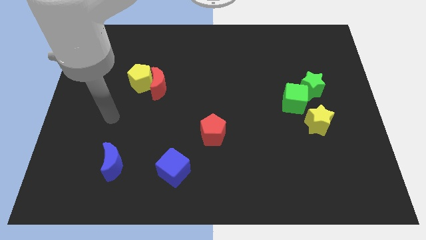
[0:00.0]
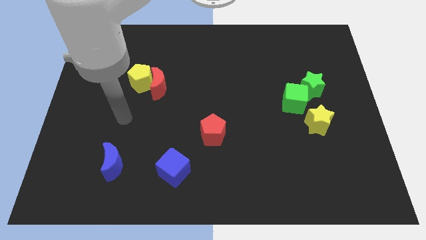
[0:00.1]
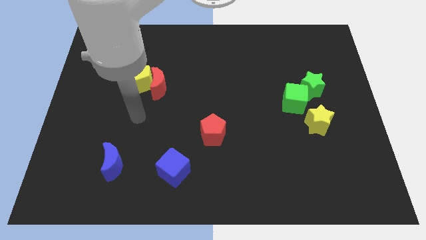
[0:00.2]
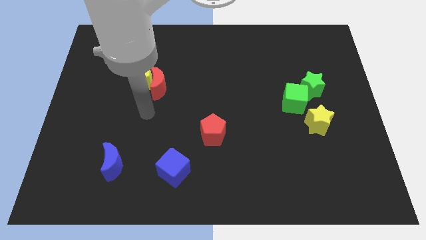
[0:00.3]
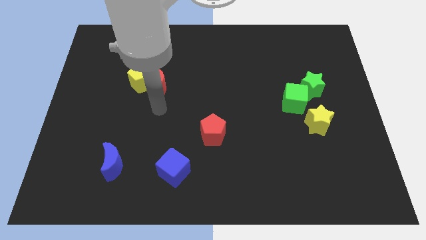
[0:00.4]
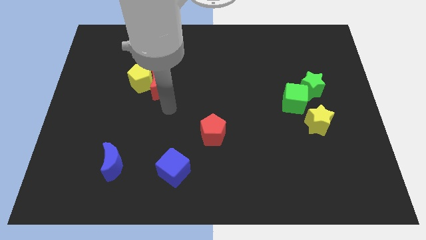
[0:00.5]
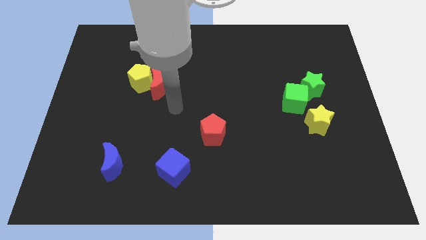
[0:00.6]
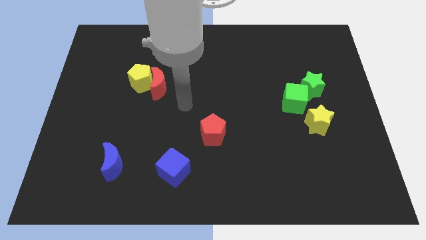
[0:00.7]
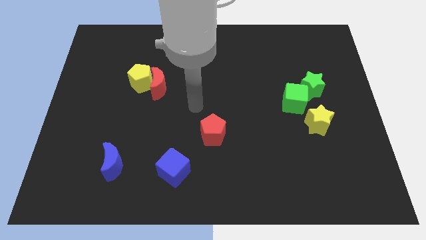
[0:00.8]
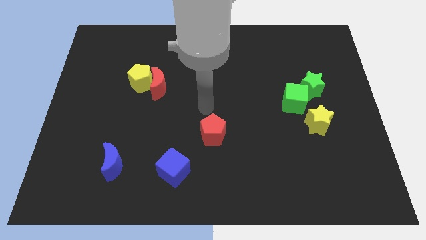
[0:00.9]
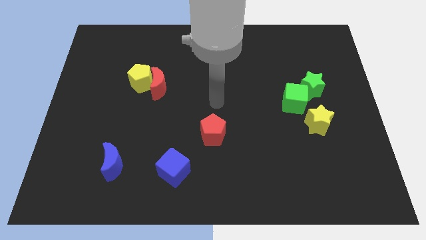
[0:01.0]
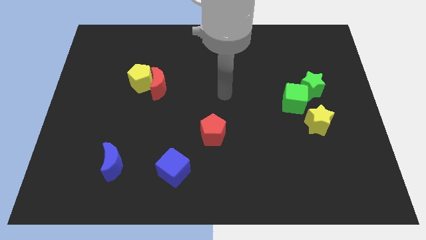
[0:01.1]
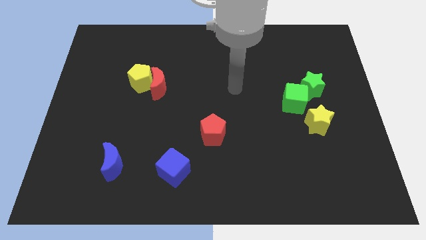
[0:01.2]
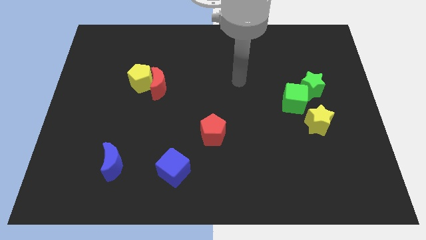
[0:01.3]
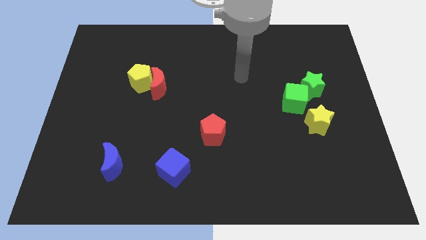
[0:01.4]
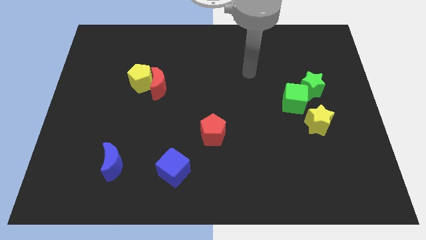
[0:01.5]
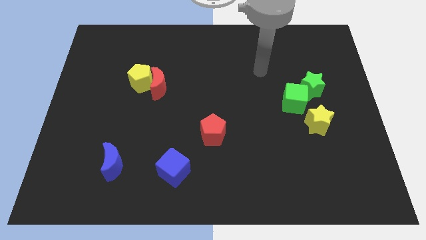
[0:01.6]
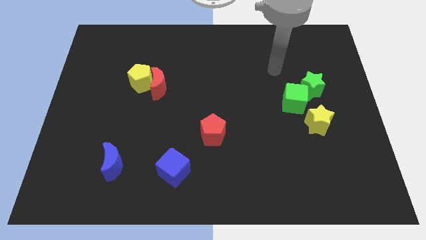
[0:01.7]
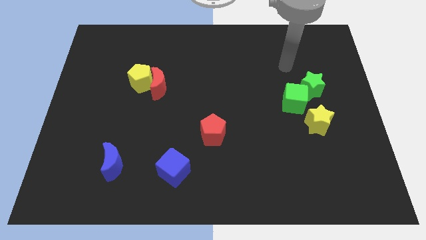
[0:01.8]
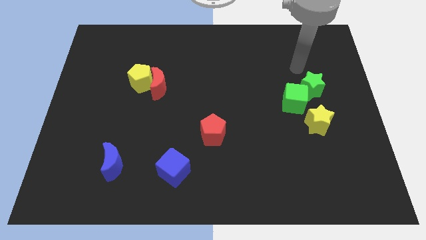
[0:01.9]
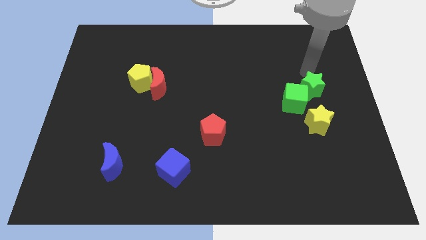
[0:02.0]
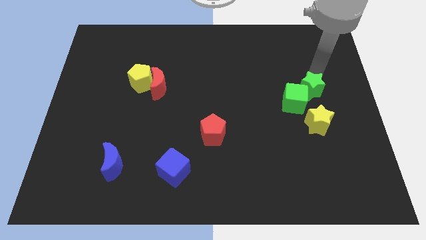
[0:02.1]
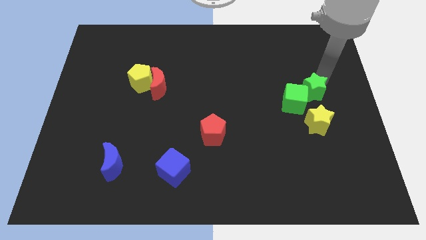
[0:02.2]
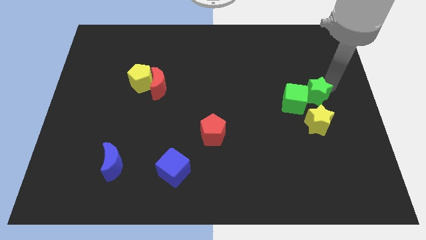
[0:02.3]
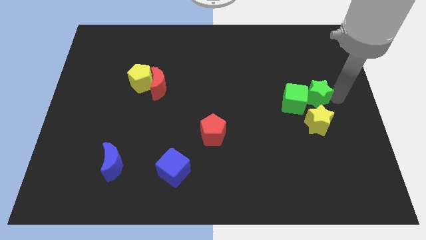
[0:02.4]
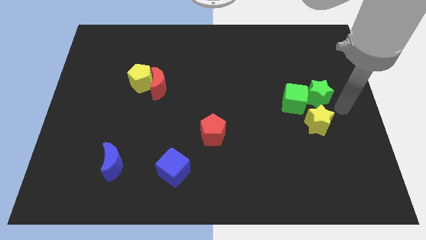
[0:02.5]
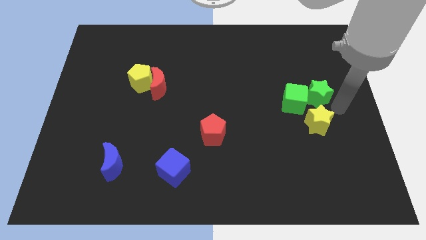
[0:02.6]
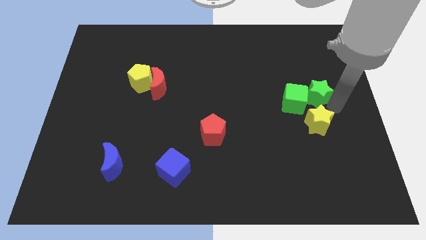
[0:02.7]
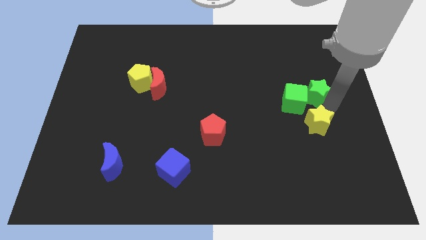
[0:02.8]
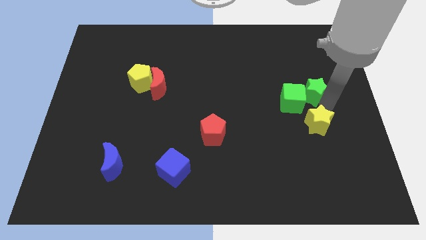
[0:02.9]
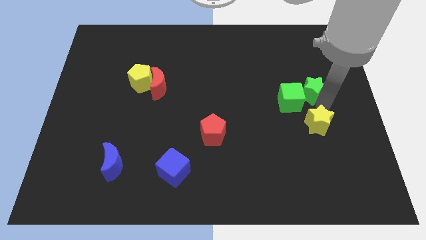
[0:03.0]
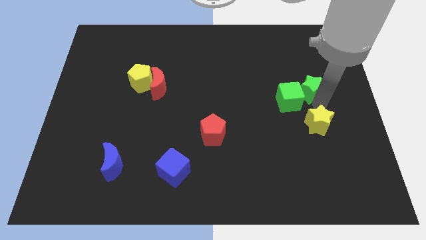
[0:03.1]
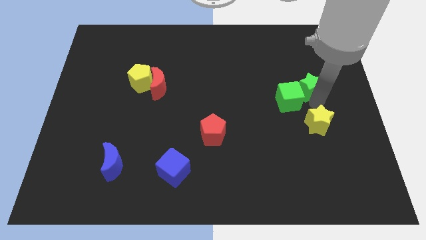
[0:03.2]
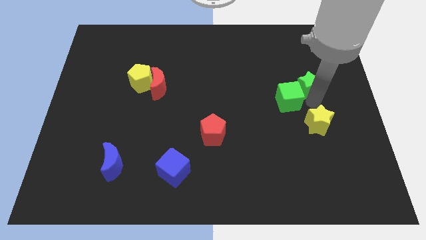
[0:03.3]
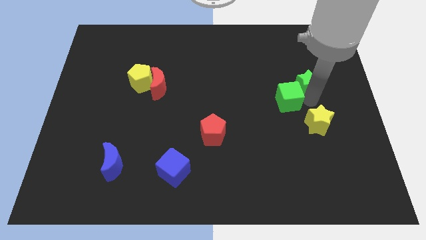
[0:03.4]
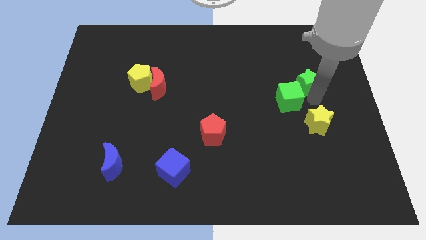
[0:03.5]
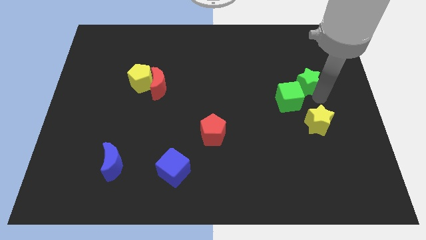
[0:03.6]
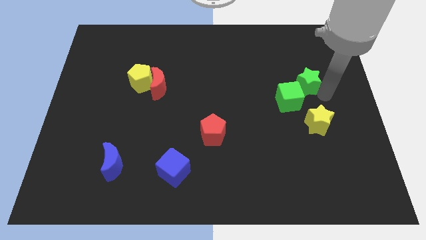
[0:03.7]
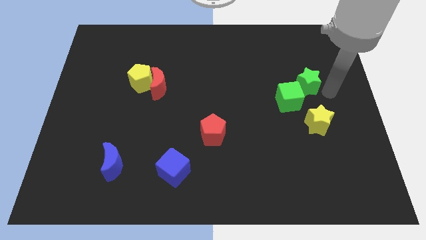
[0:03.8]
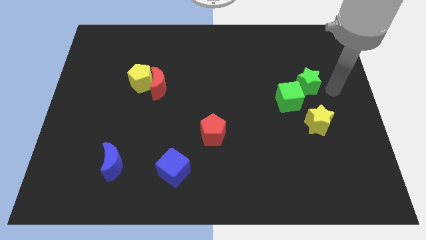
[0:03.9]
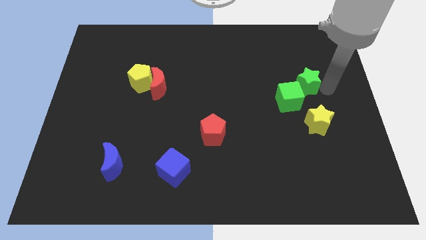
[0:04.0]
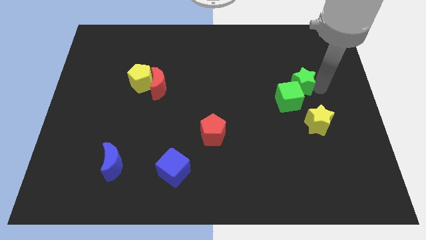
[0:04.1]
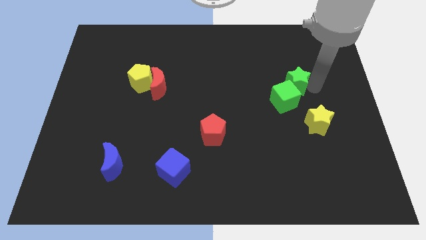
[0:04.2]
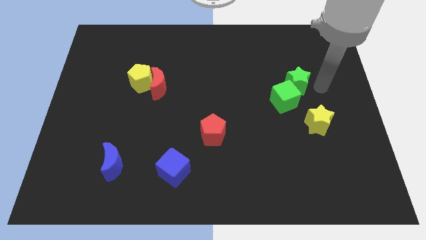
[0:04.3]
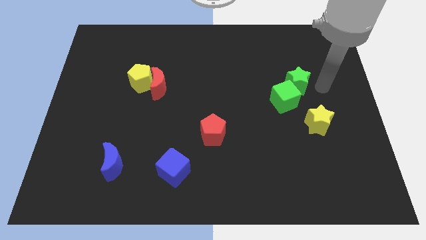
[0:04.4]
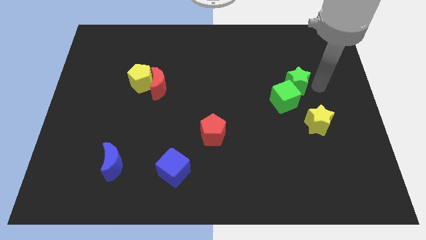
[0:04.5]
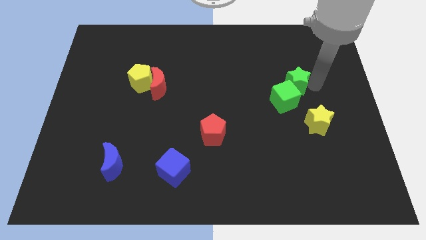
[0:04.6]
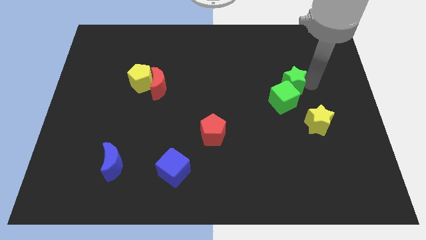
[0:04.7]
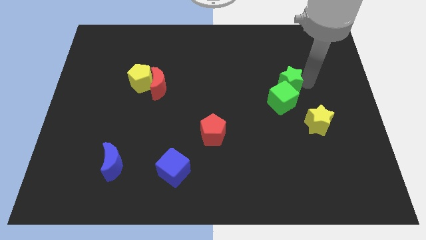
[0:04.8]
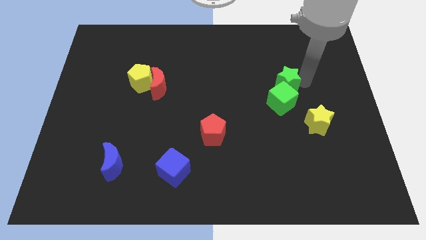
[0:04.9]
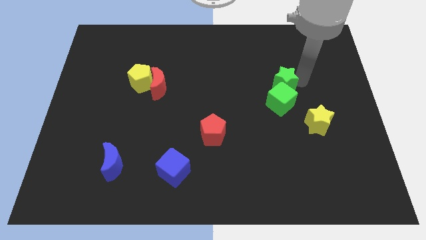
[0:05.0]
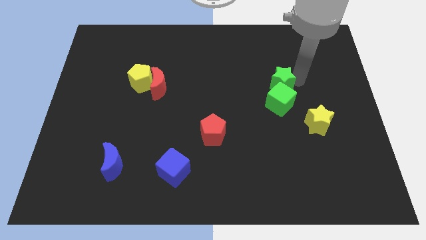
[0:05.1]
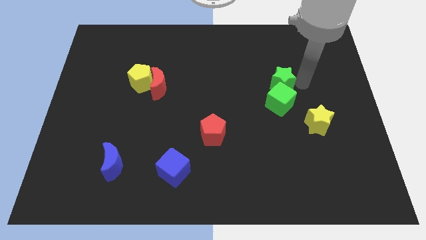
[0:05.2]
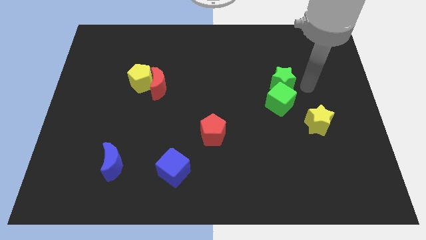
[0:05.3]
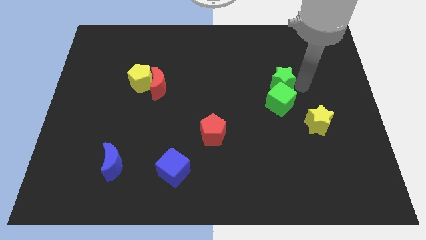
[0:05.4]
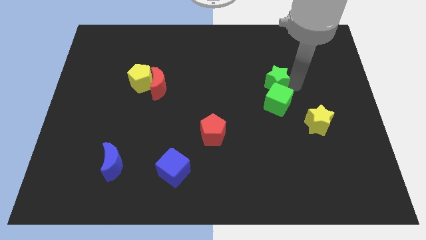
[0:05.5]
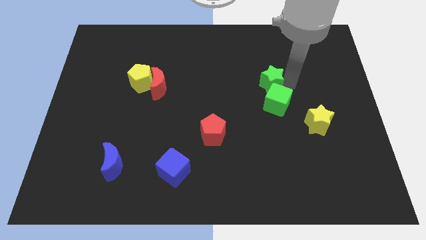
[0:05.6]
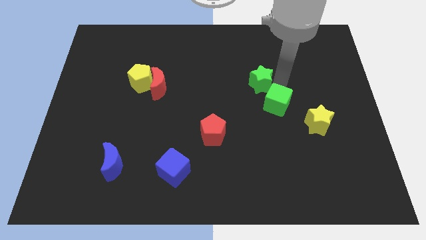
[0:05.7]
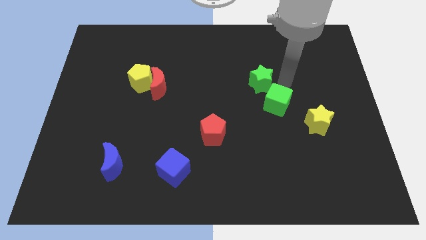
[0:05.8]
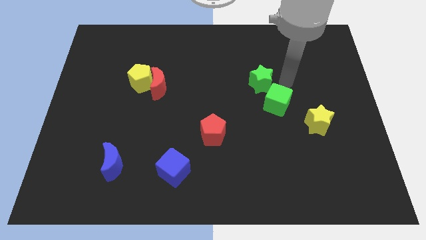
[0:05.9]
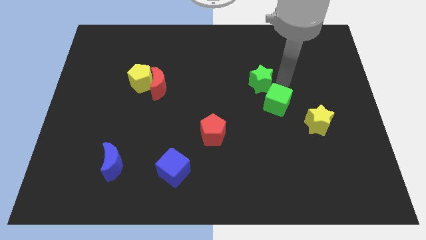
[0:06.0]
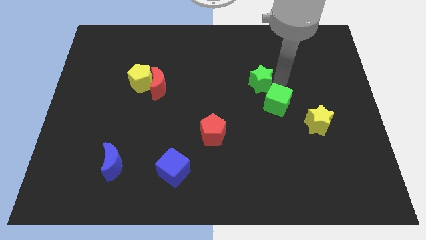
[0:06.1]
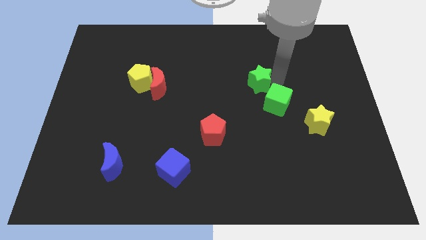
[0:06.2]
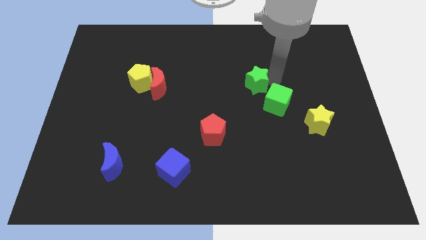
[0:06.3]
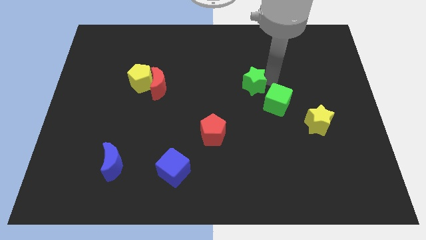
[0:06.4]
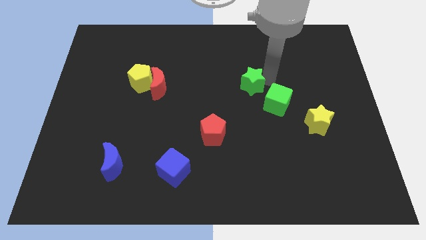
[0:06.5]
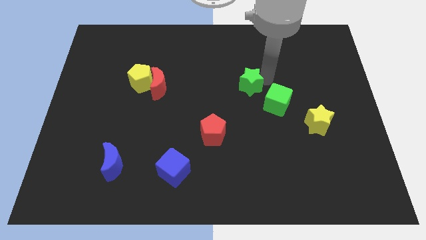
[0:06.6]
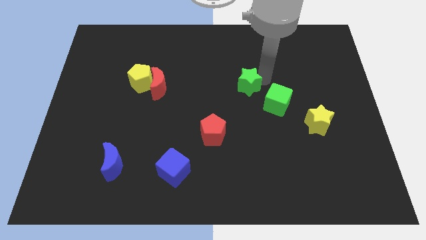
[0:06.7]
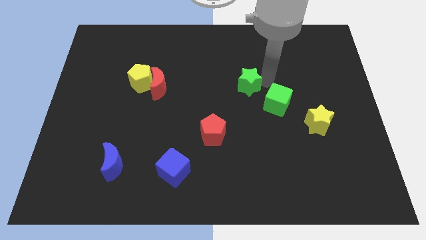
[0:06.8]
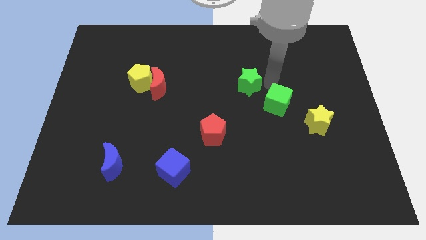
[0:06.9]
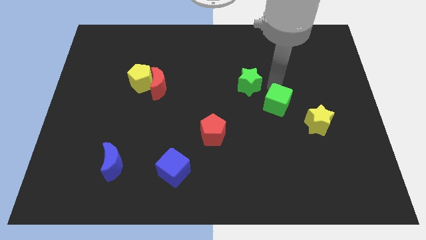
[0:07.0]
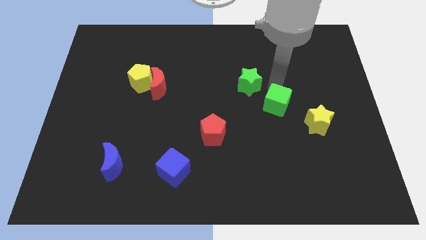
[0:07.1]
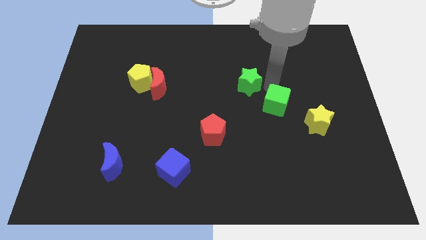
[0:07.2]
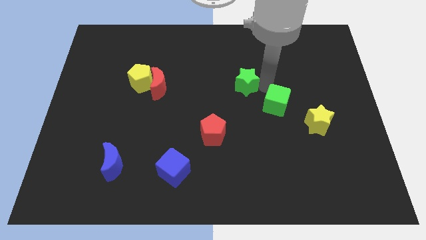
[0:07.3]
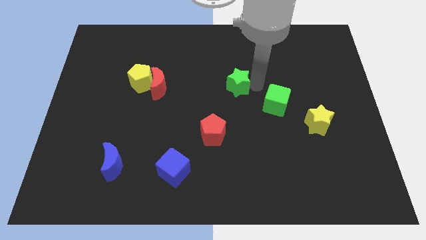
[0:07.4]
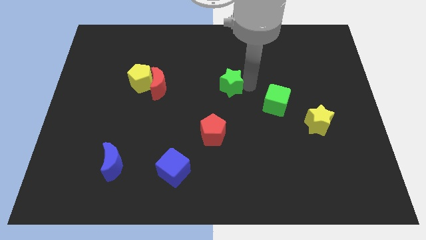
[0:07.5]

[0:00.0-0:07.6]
push the green star left

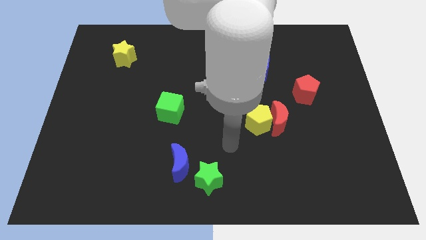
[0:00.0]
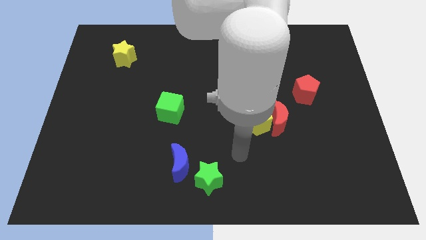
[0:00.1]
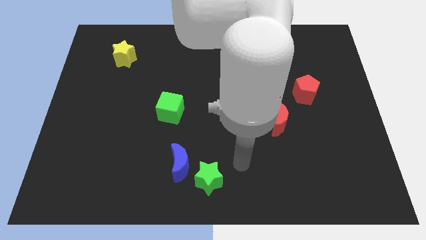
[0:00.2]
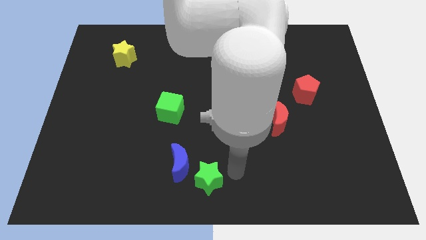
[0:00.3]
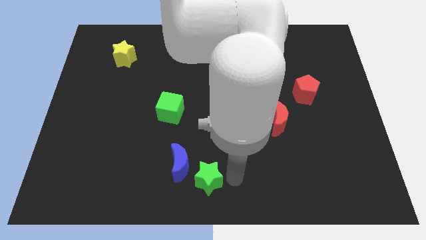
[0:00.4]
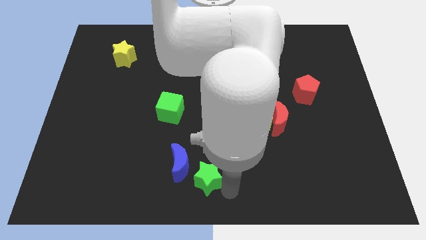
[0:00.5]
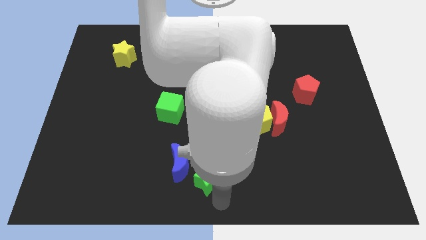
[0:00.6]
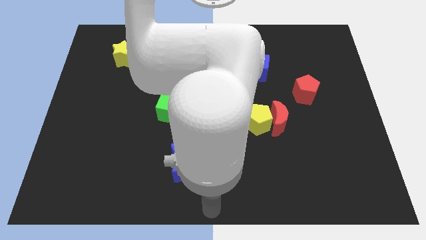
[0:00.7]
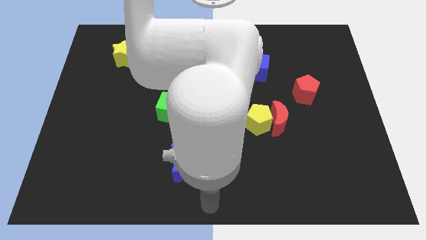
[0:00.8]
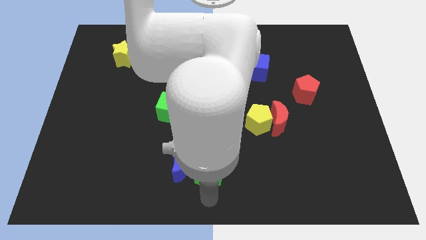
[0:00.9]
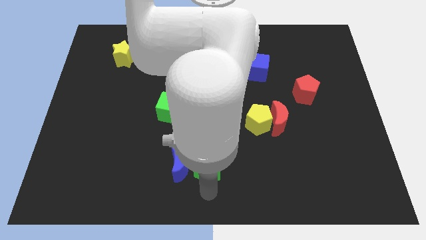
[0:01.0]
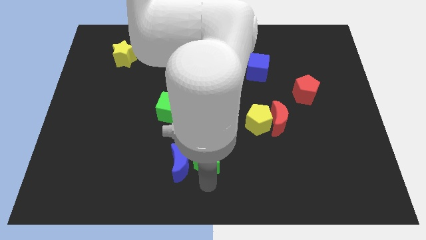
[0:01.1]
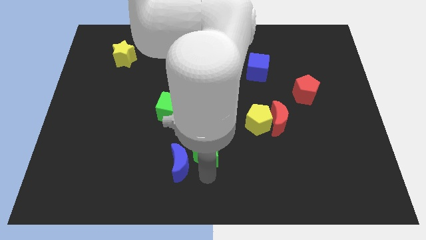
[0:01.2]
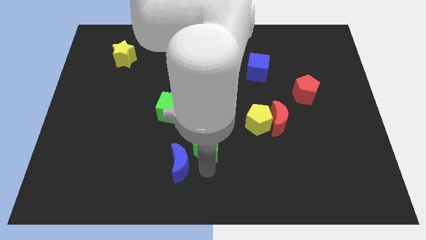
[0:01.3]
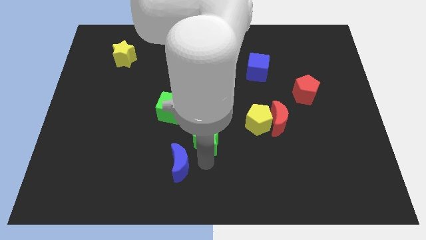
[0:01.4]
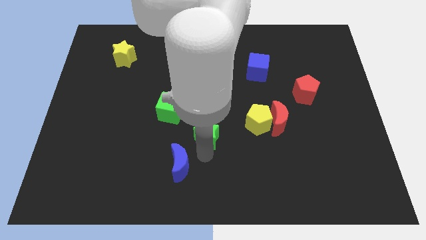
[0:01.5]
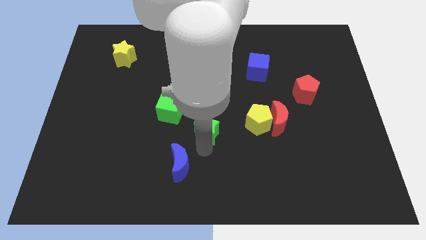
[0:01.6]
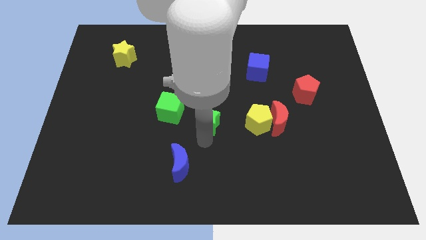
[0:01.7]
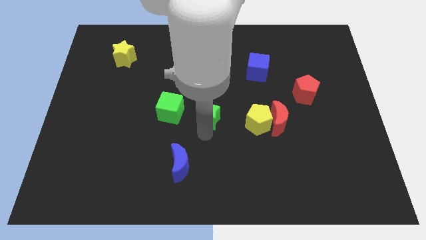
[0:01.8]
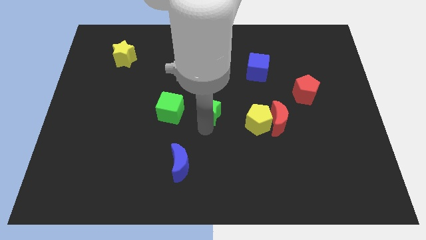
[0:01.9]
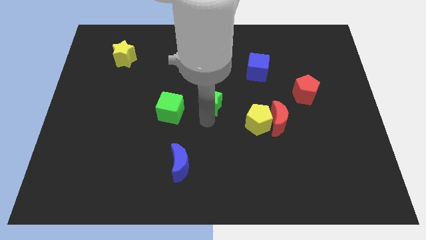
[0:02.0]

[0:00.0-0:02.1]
slide the green star up
